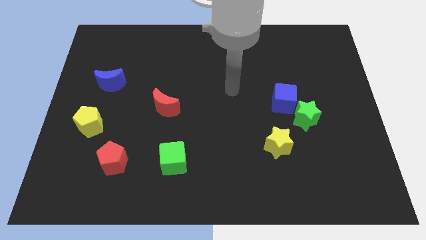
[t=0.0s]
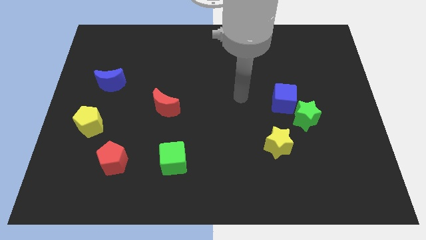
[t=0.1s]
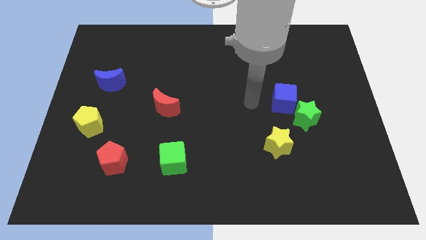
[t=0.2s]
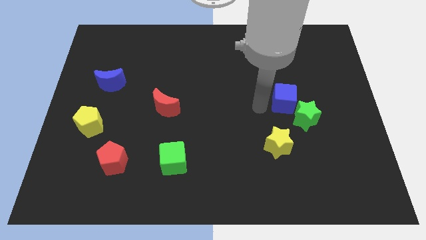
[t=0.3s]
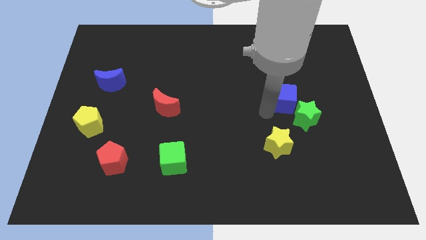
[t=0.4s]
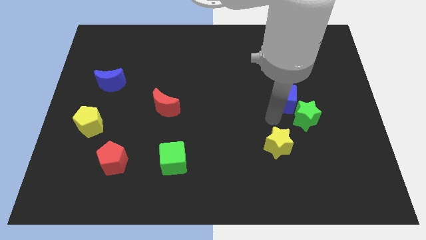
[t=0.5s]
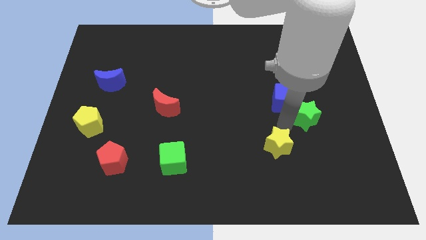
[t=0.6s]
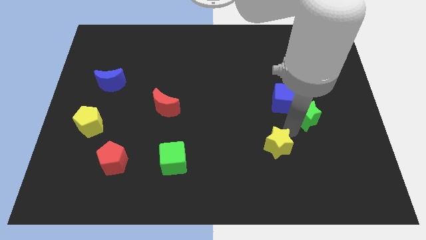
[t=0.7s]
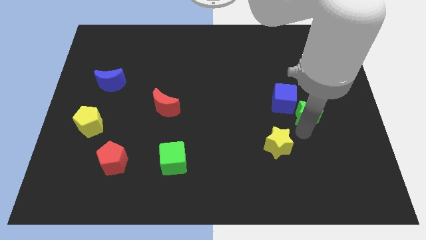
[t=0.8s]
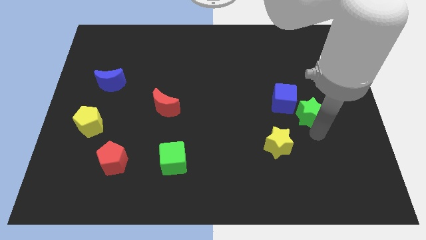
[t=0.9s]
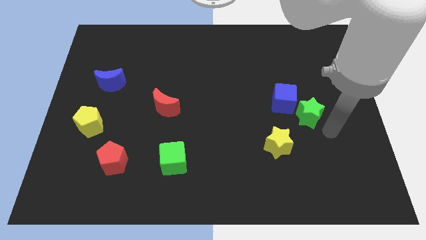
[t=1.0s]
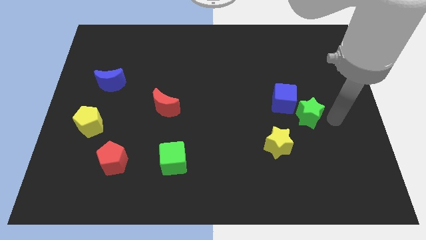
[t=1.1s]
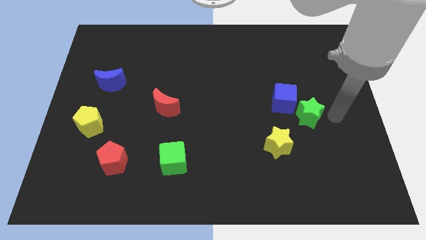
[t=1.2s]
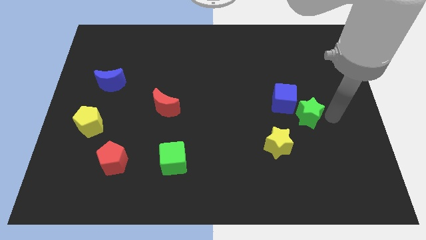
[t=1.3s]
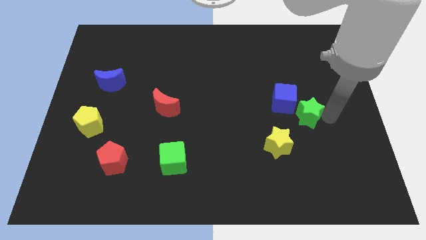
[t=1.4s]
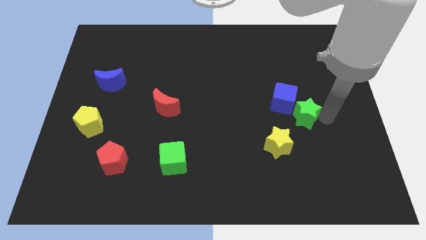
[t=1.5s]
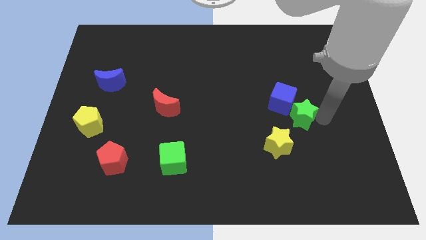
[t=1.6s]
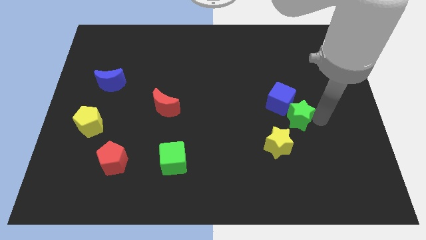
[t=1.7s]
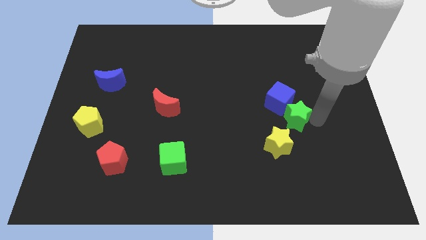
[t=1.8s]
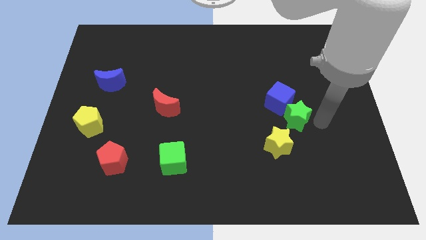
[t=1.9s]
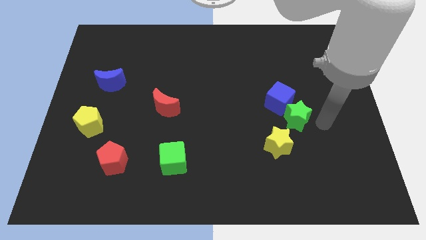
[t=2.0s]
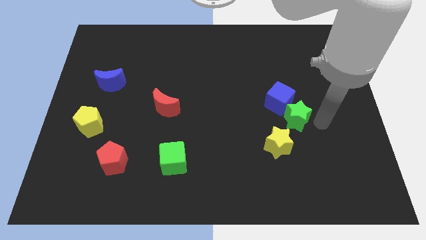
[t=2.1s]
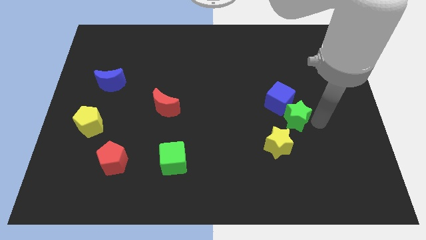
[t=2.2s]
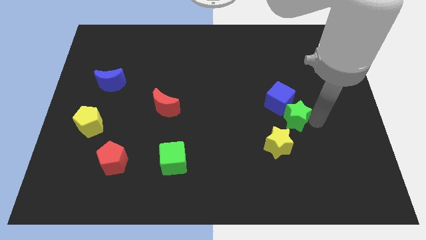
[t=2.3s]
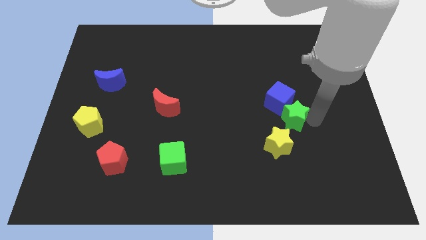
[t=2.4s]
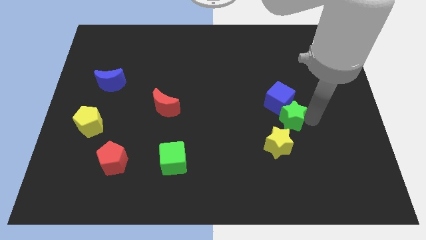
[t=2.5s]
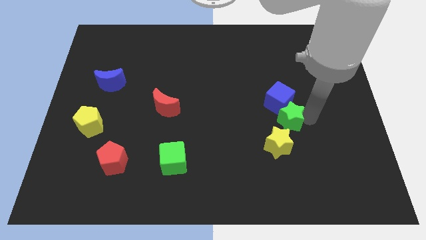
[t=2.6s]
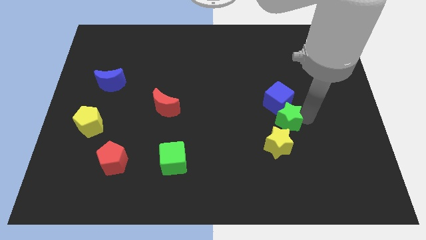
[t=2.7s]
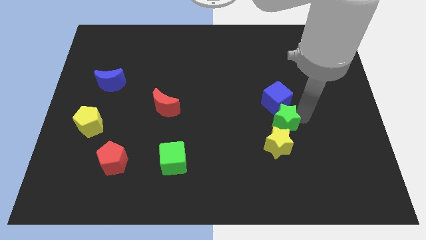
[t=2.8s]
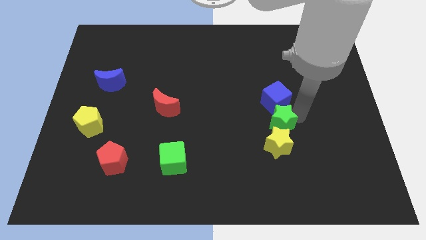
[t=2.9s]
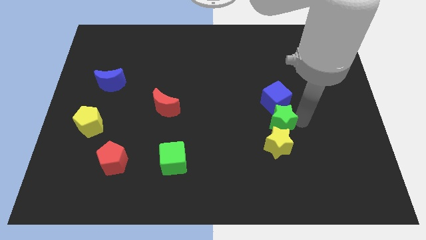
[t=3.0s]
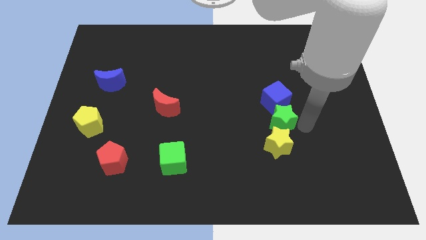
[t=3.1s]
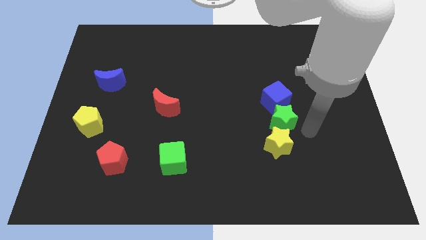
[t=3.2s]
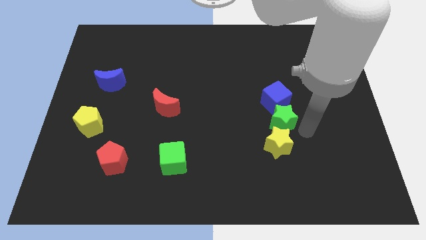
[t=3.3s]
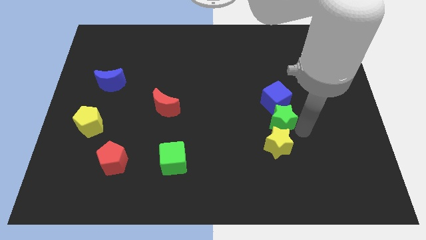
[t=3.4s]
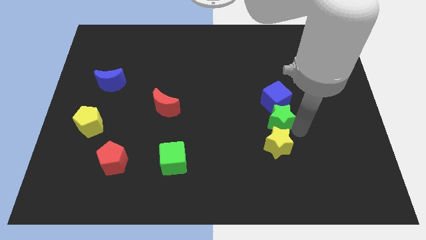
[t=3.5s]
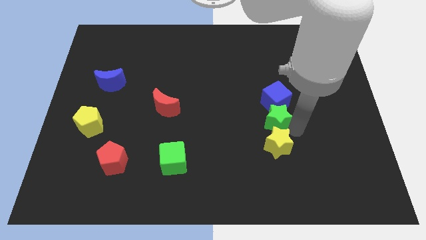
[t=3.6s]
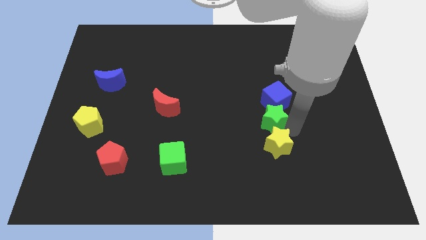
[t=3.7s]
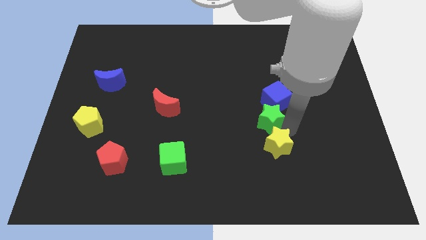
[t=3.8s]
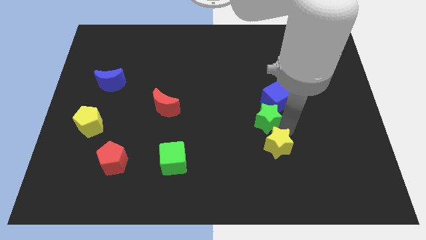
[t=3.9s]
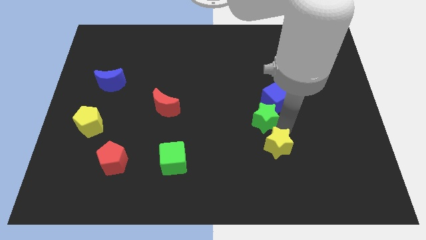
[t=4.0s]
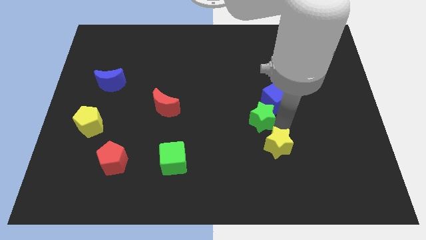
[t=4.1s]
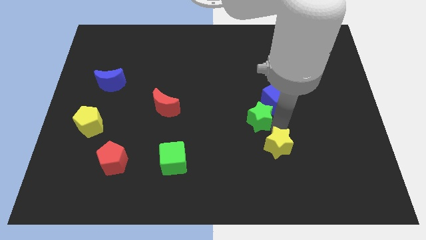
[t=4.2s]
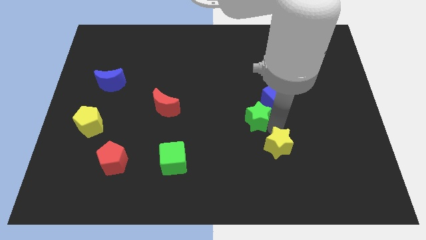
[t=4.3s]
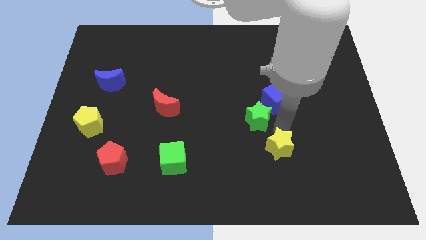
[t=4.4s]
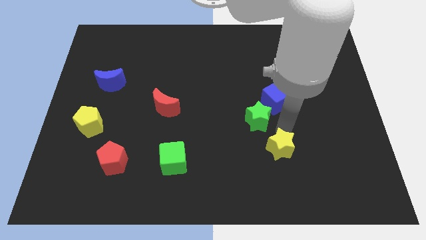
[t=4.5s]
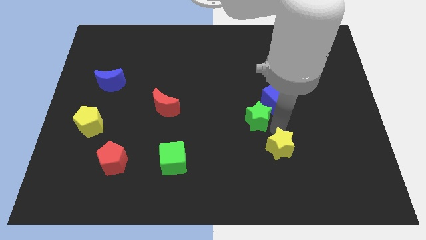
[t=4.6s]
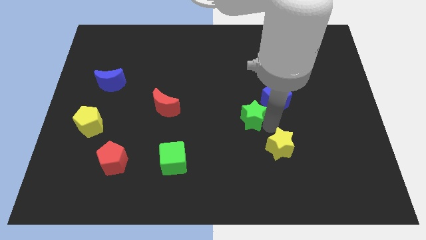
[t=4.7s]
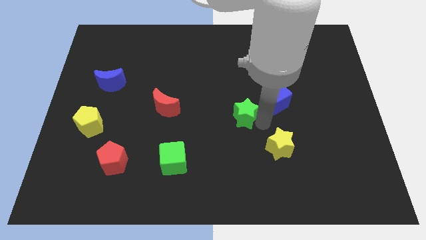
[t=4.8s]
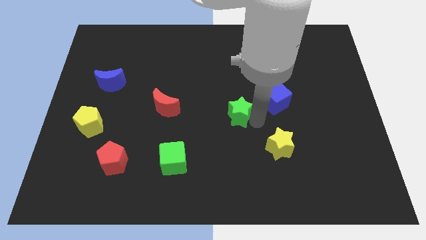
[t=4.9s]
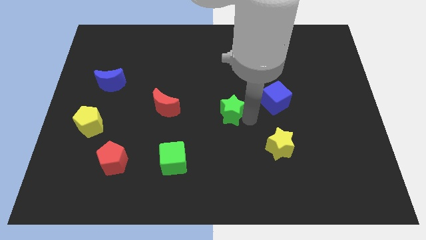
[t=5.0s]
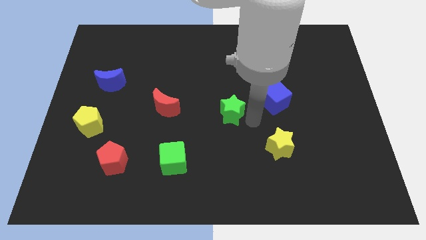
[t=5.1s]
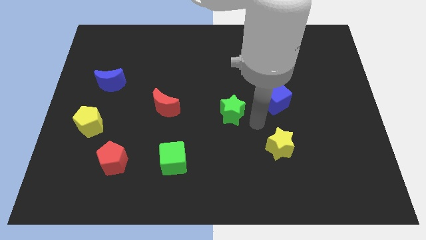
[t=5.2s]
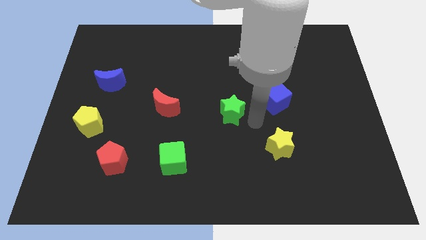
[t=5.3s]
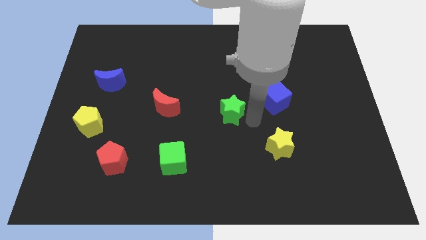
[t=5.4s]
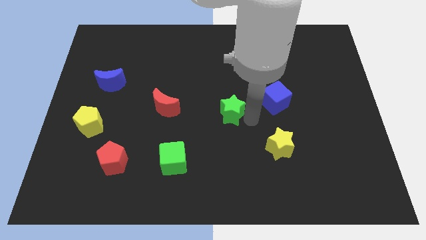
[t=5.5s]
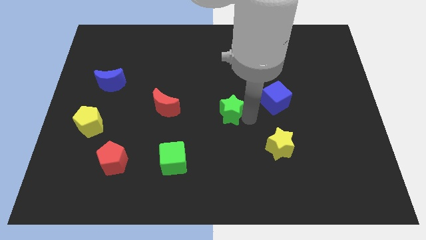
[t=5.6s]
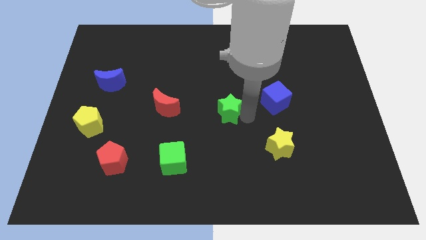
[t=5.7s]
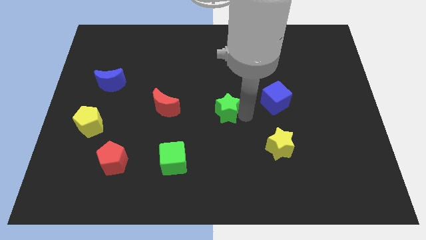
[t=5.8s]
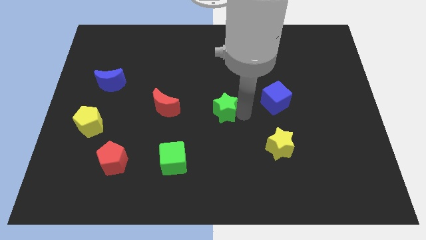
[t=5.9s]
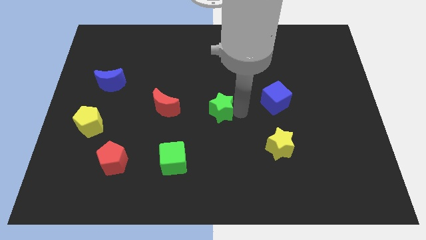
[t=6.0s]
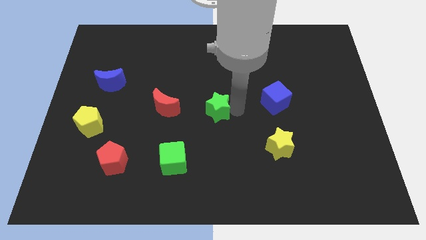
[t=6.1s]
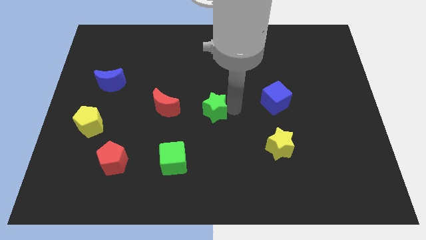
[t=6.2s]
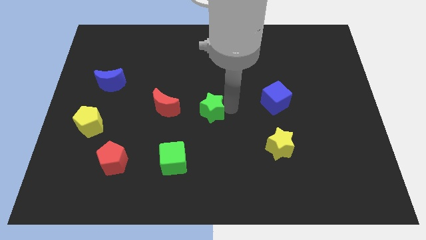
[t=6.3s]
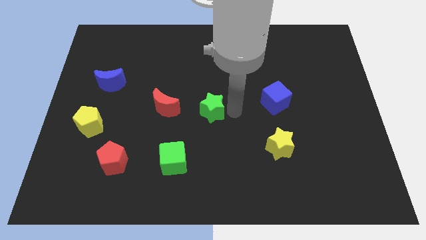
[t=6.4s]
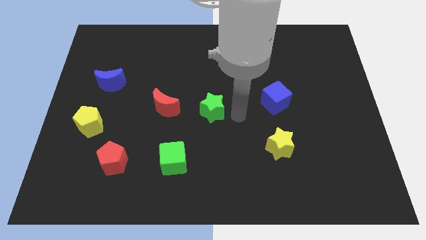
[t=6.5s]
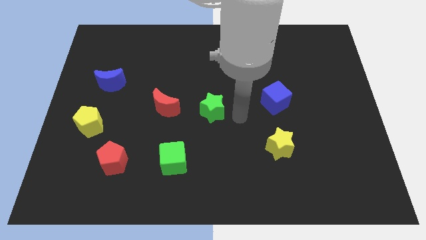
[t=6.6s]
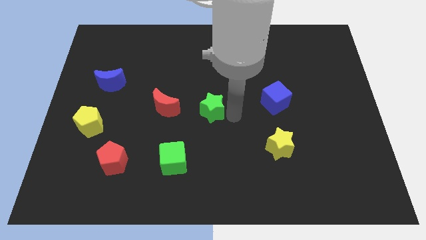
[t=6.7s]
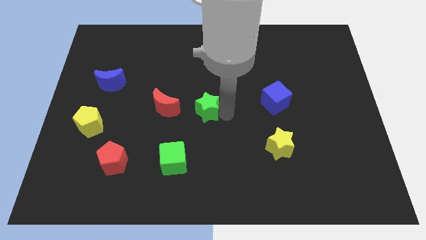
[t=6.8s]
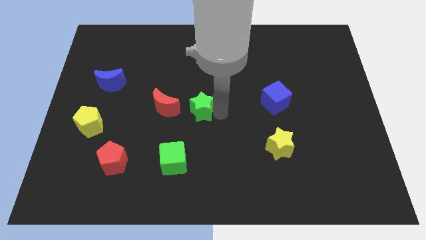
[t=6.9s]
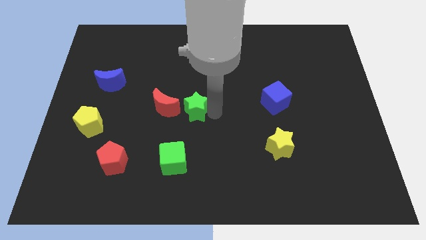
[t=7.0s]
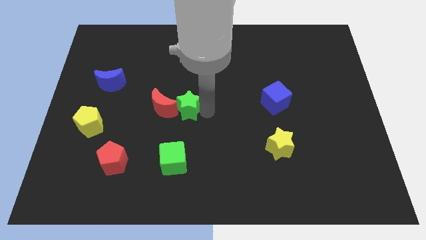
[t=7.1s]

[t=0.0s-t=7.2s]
put the green star close to the red moon
